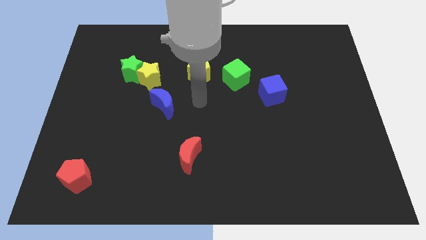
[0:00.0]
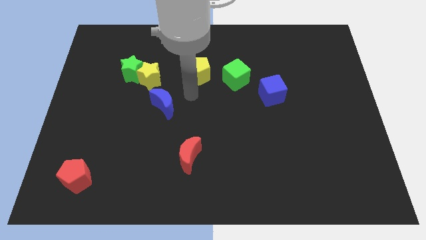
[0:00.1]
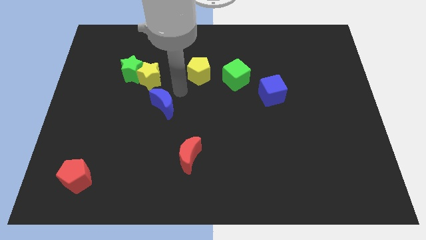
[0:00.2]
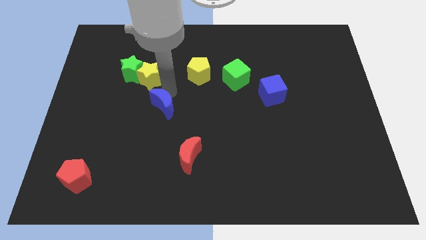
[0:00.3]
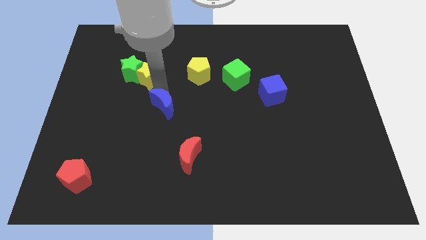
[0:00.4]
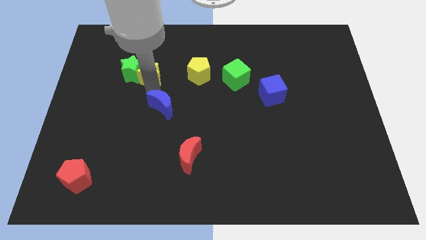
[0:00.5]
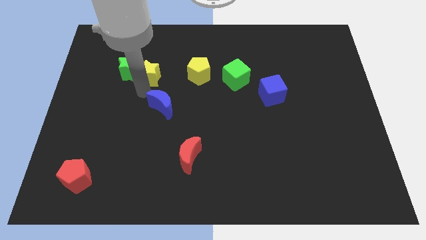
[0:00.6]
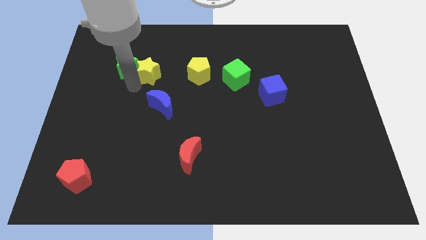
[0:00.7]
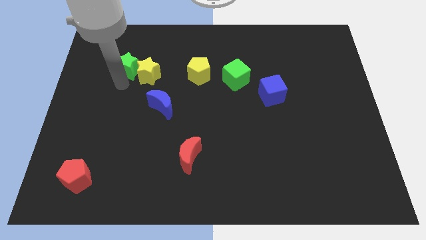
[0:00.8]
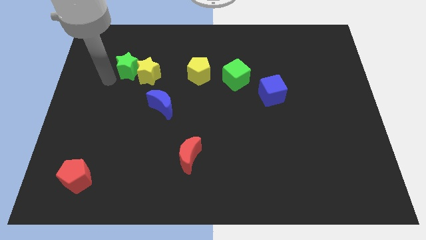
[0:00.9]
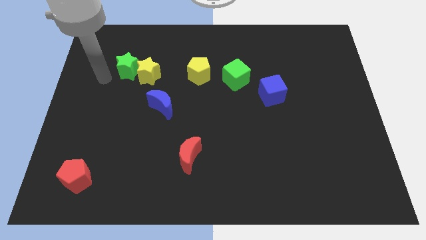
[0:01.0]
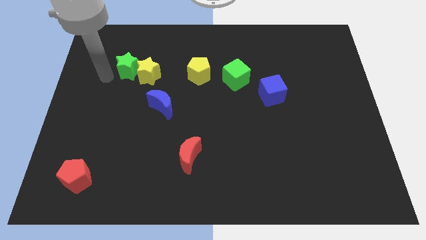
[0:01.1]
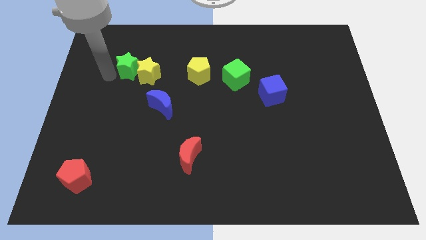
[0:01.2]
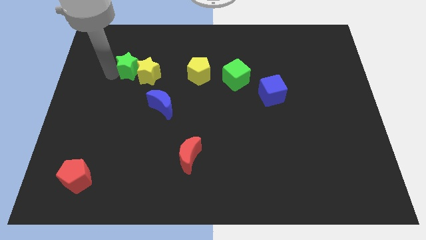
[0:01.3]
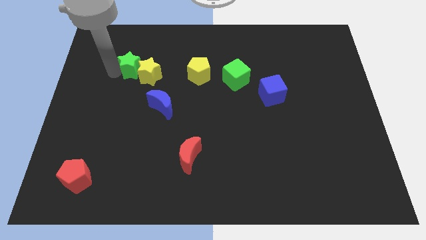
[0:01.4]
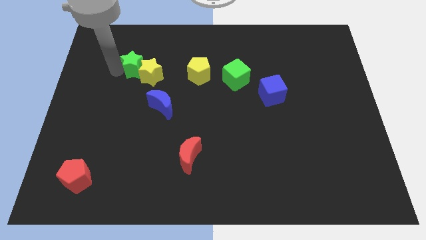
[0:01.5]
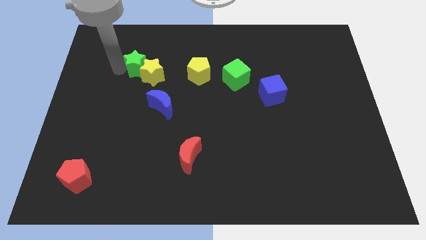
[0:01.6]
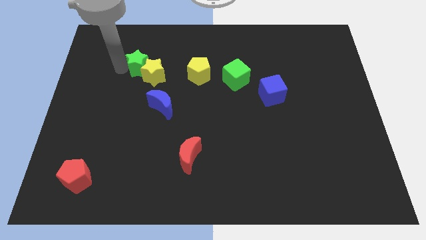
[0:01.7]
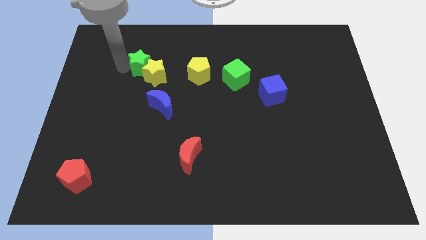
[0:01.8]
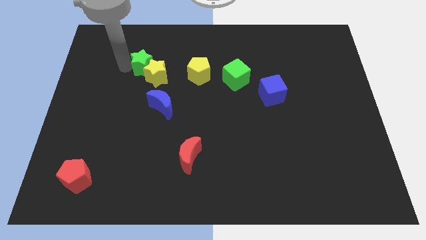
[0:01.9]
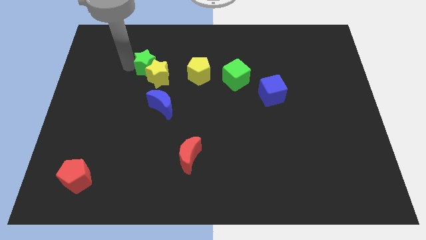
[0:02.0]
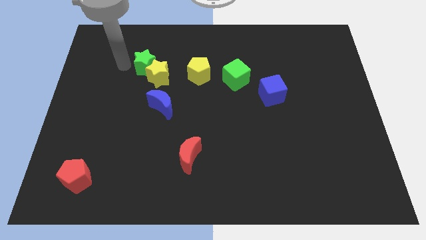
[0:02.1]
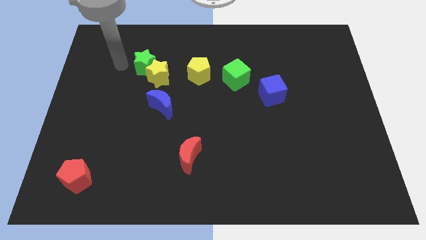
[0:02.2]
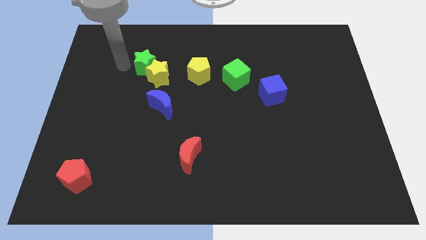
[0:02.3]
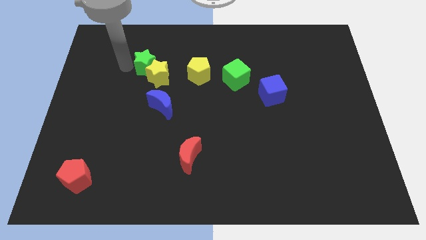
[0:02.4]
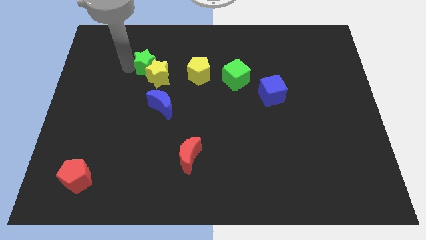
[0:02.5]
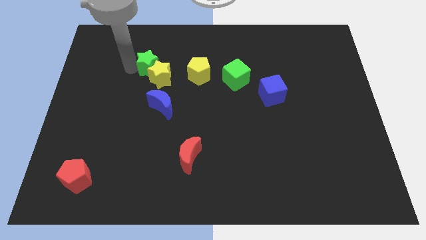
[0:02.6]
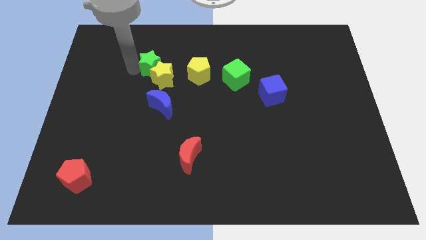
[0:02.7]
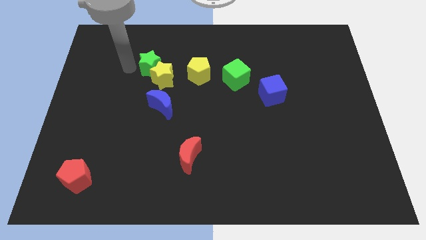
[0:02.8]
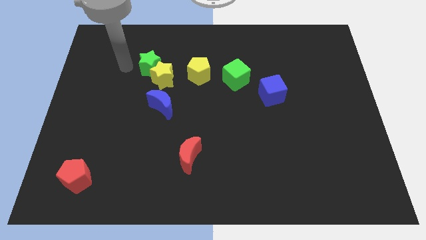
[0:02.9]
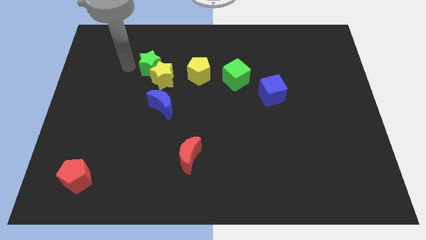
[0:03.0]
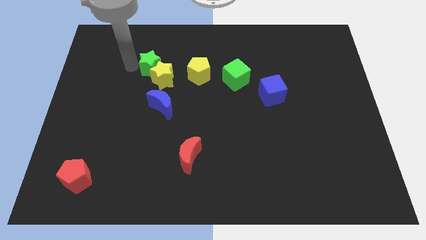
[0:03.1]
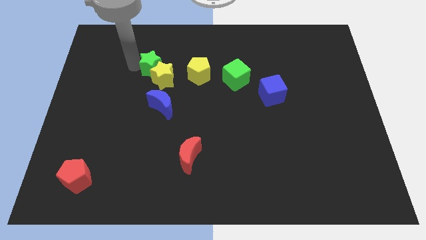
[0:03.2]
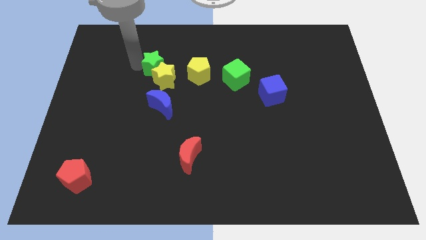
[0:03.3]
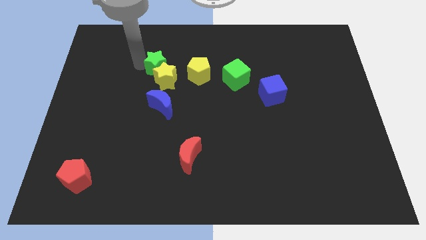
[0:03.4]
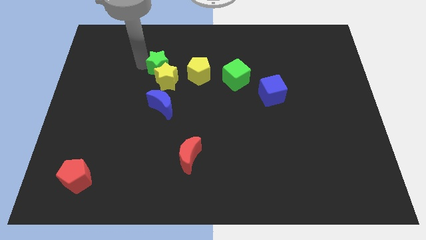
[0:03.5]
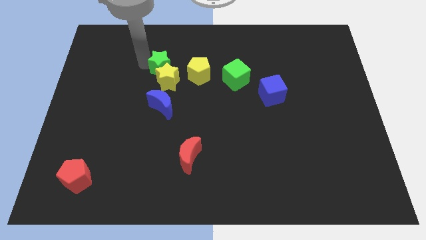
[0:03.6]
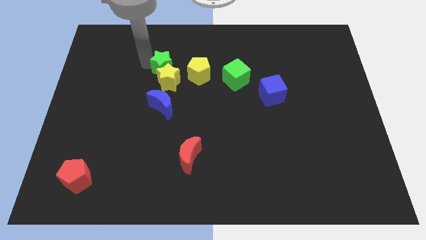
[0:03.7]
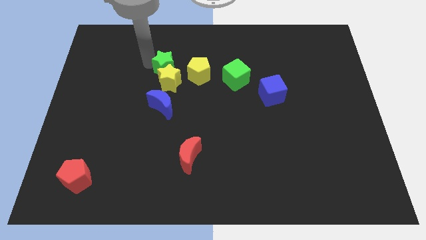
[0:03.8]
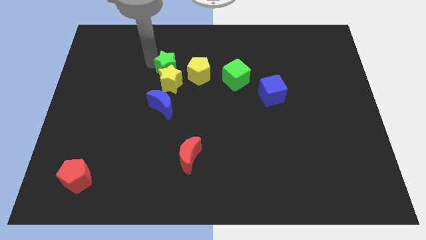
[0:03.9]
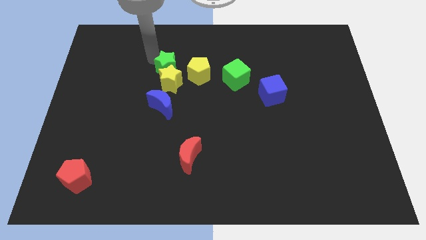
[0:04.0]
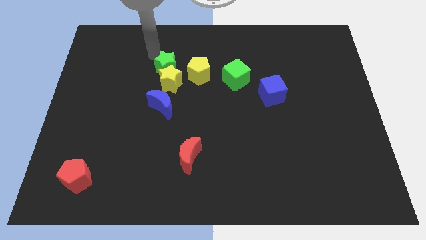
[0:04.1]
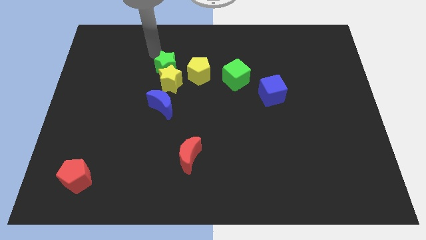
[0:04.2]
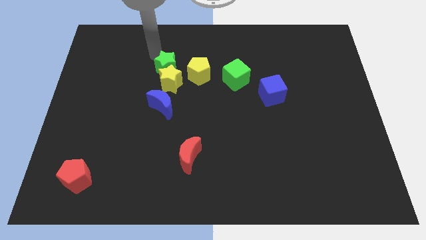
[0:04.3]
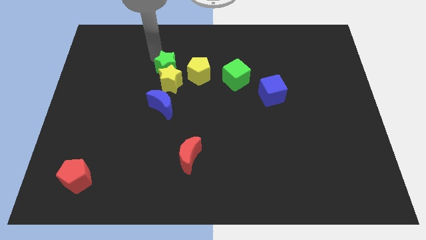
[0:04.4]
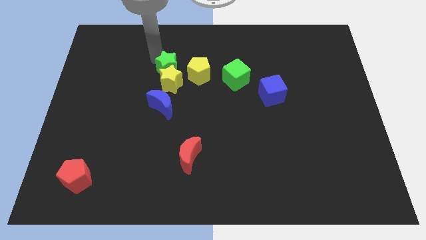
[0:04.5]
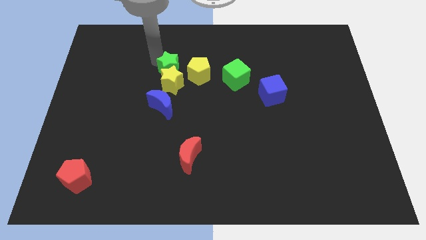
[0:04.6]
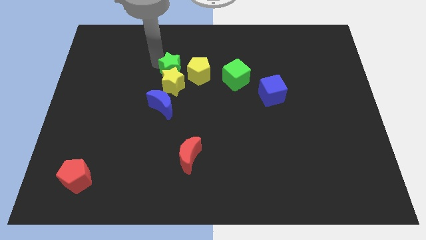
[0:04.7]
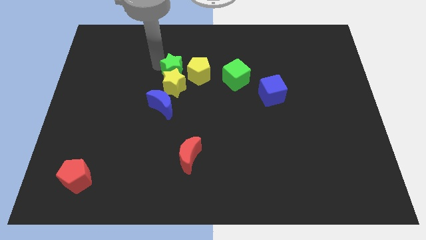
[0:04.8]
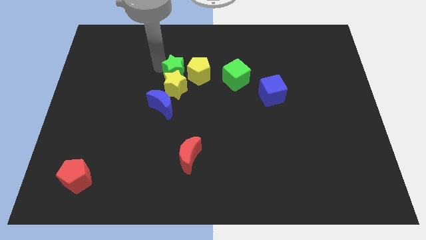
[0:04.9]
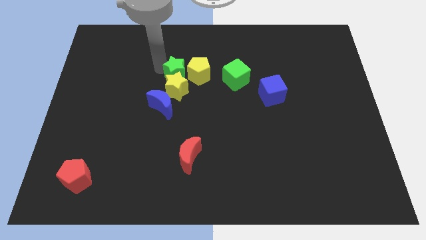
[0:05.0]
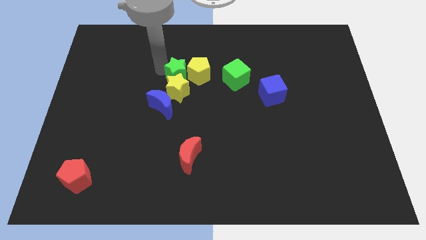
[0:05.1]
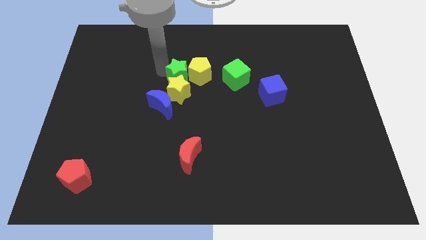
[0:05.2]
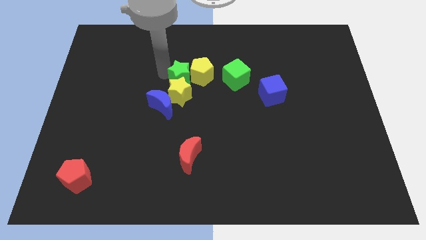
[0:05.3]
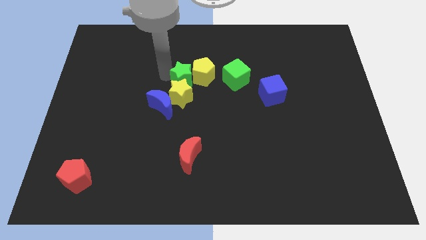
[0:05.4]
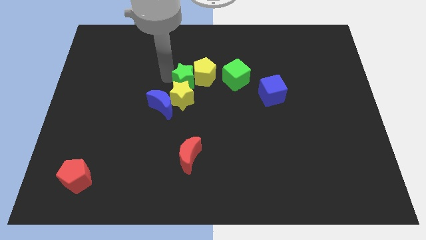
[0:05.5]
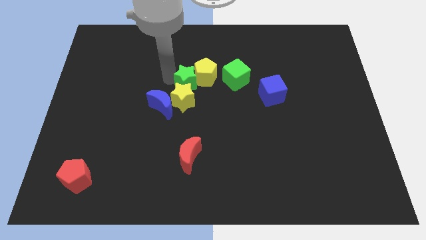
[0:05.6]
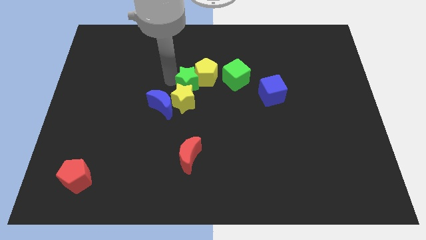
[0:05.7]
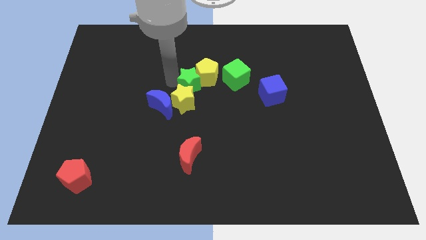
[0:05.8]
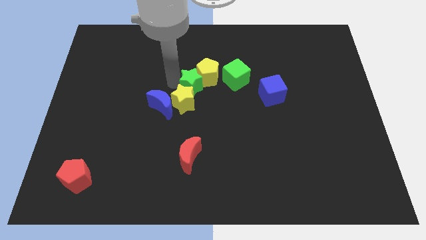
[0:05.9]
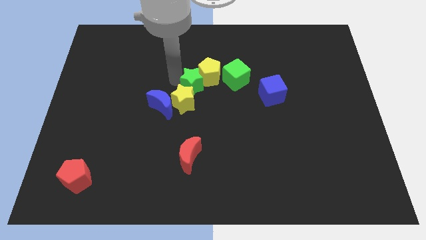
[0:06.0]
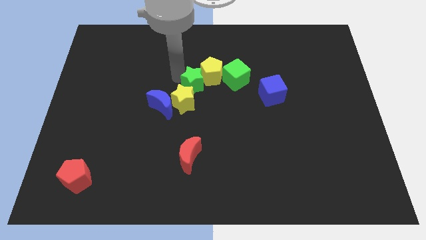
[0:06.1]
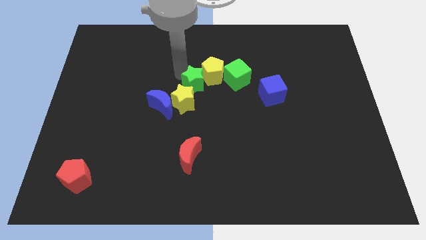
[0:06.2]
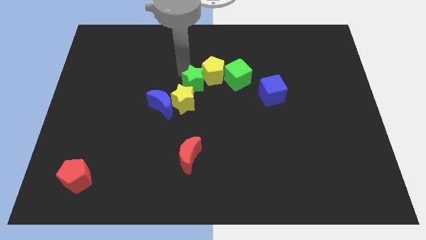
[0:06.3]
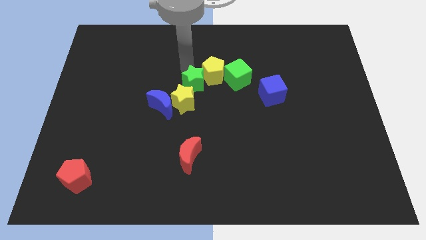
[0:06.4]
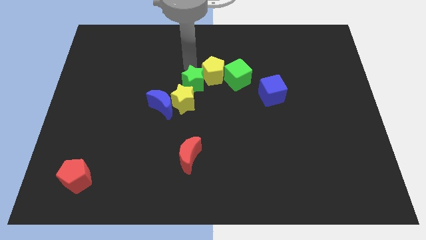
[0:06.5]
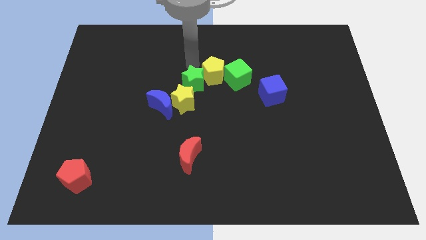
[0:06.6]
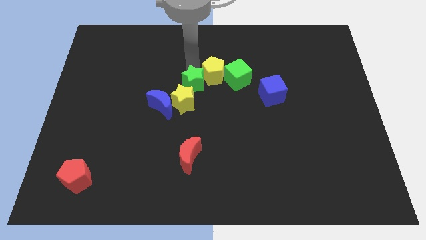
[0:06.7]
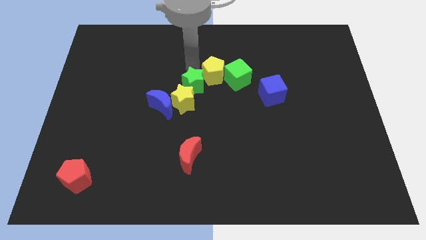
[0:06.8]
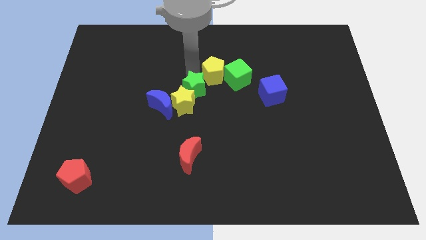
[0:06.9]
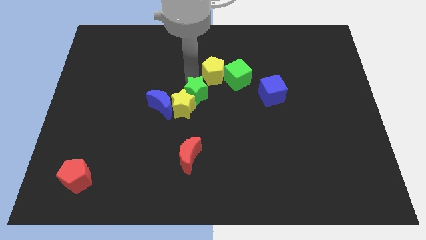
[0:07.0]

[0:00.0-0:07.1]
push the green star right of the blue moon
